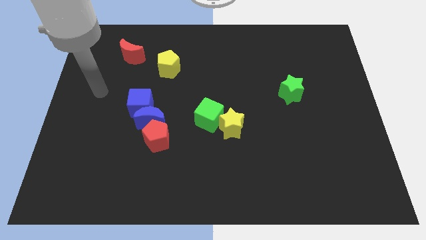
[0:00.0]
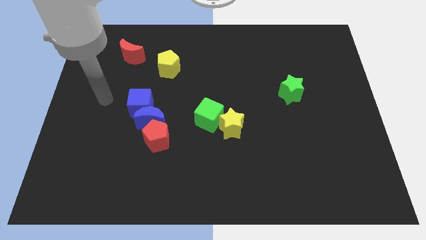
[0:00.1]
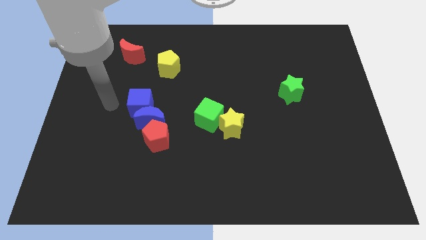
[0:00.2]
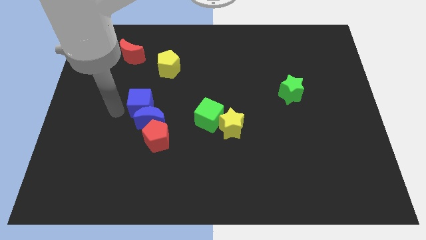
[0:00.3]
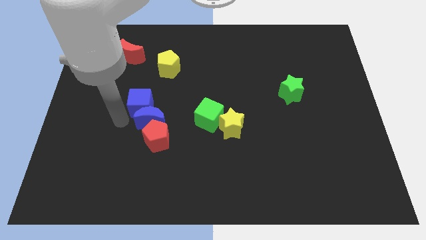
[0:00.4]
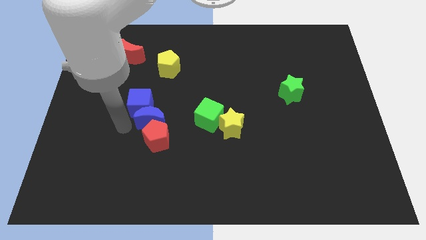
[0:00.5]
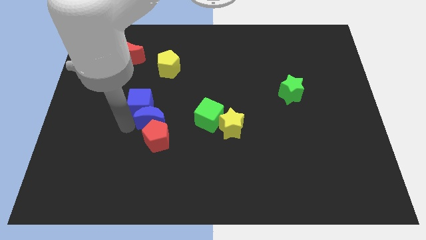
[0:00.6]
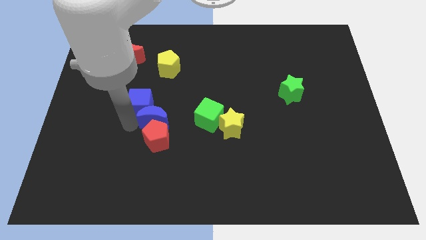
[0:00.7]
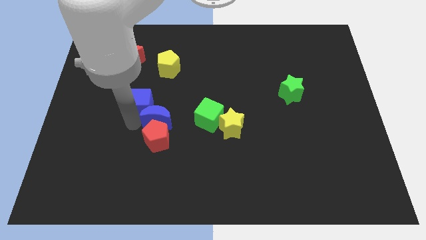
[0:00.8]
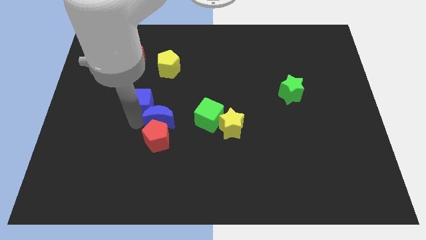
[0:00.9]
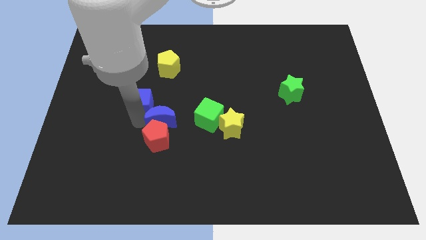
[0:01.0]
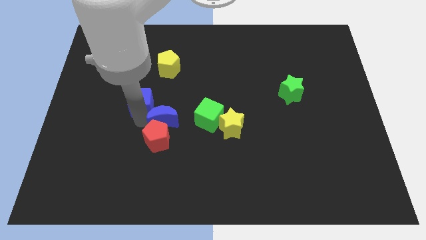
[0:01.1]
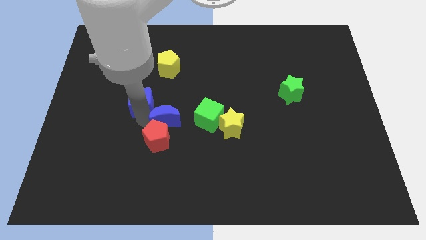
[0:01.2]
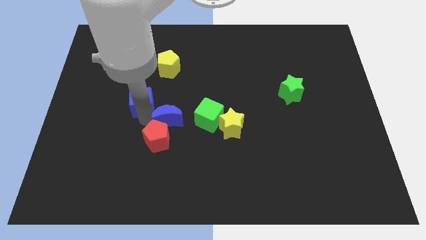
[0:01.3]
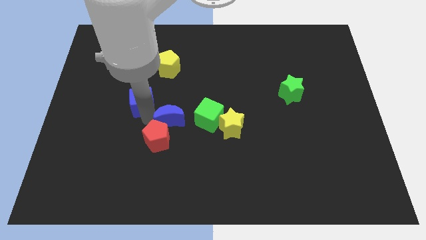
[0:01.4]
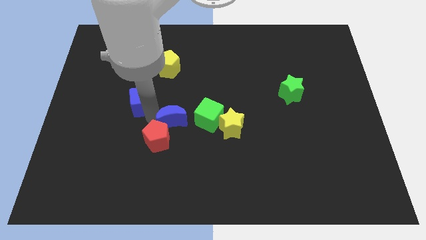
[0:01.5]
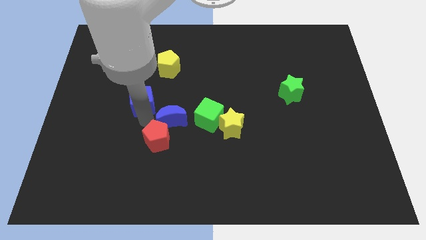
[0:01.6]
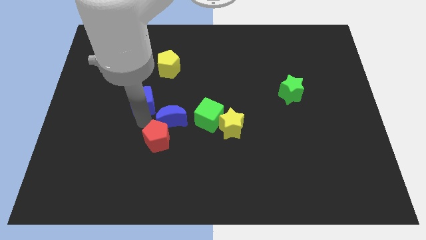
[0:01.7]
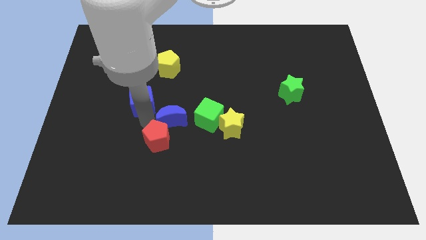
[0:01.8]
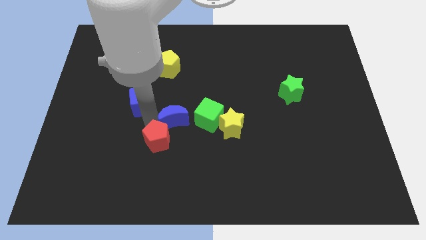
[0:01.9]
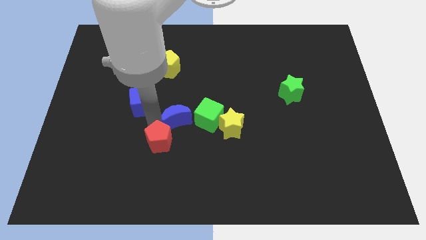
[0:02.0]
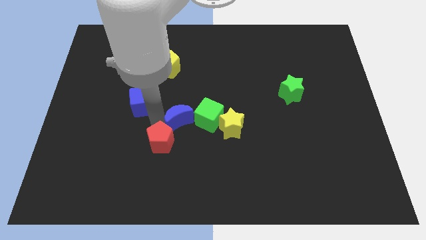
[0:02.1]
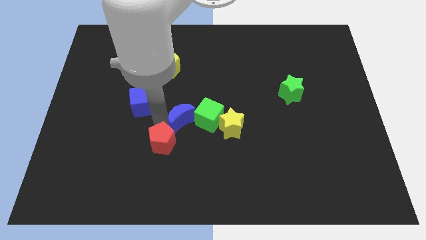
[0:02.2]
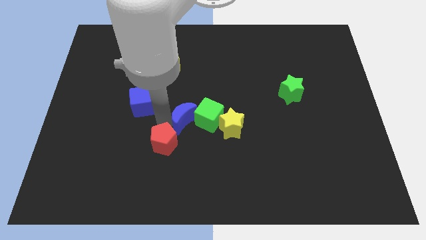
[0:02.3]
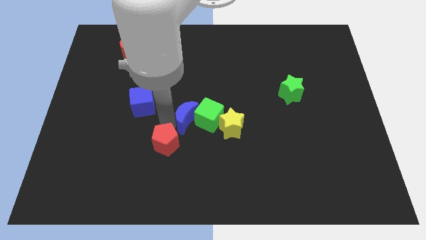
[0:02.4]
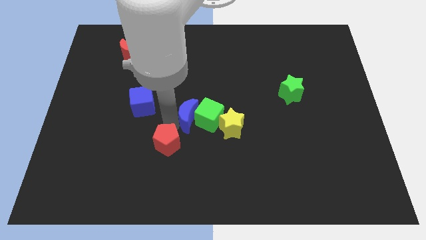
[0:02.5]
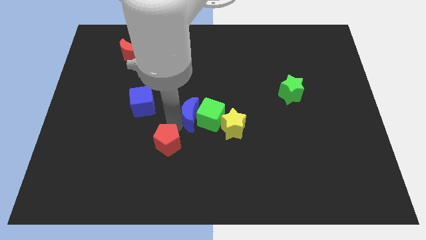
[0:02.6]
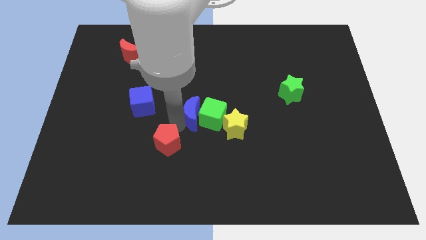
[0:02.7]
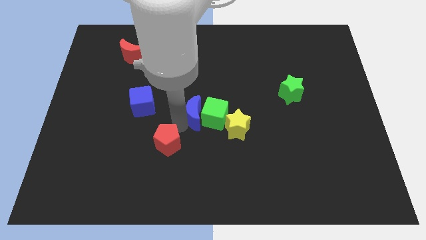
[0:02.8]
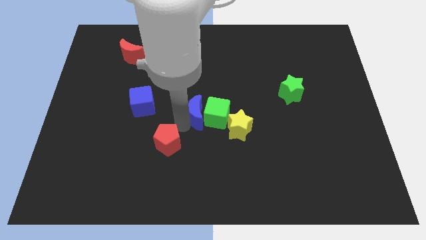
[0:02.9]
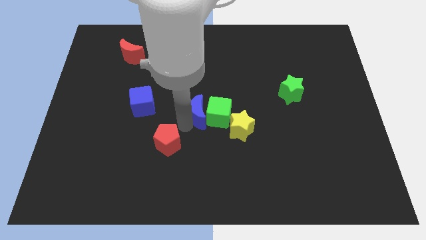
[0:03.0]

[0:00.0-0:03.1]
separate the blue moon from the blue cube and red pentagon

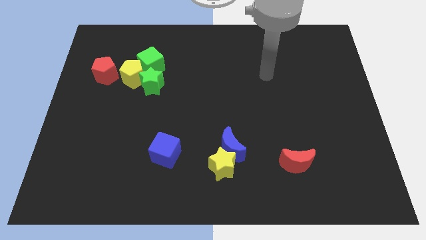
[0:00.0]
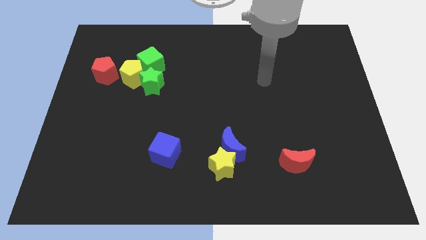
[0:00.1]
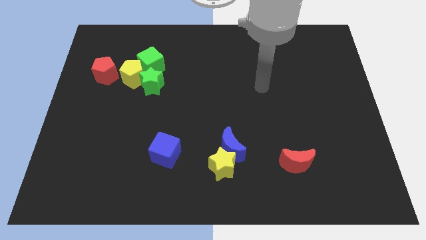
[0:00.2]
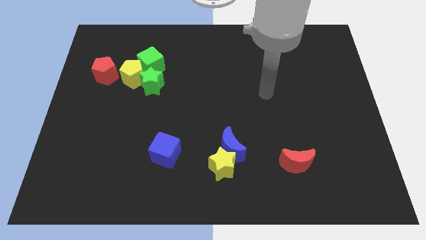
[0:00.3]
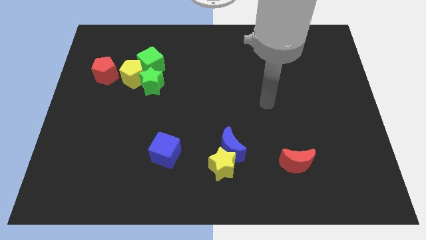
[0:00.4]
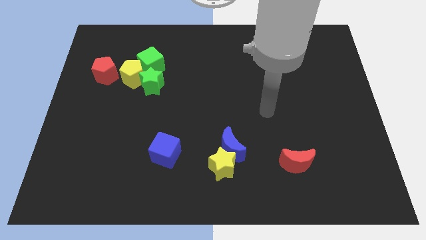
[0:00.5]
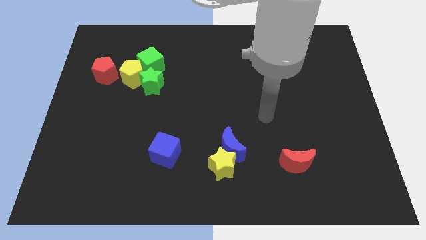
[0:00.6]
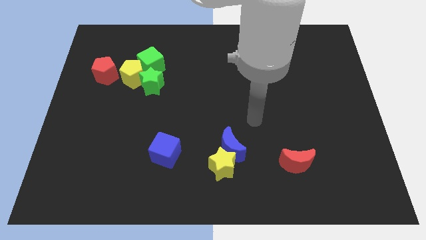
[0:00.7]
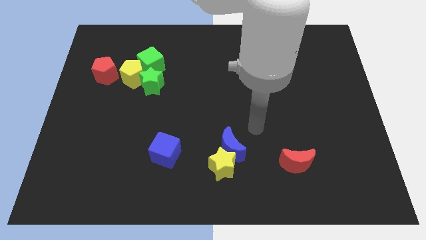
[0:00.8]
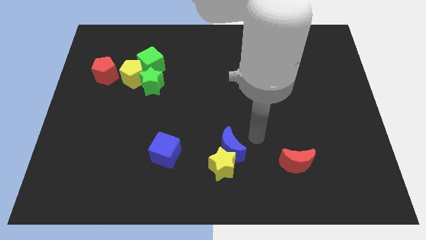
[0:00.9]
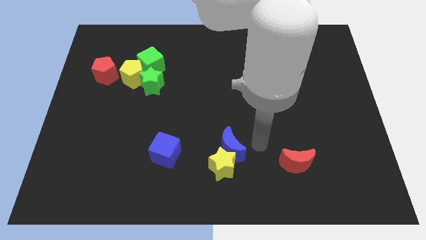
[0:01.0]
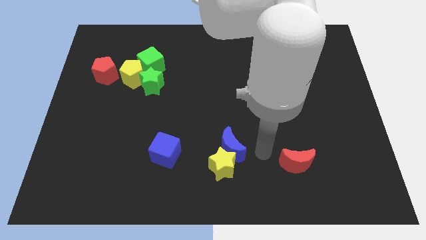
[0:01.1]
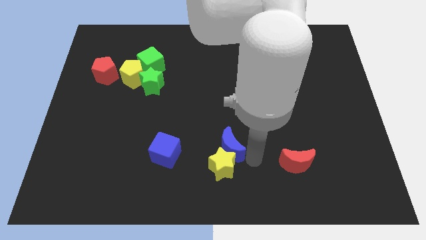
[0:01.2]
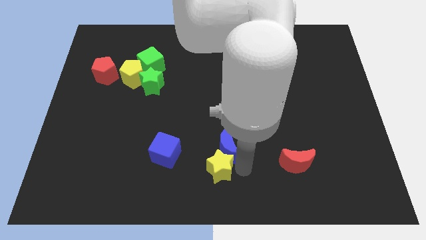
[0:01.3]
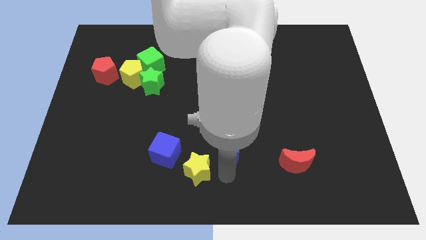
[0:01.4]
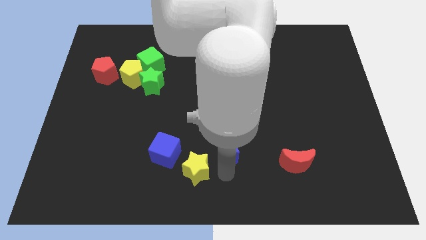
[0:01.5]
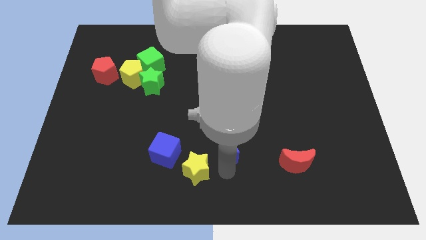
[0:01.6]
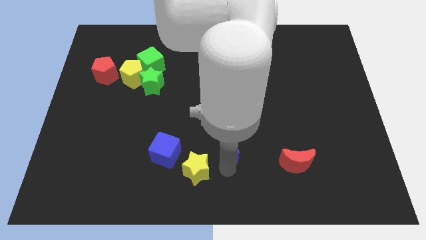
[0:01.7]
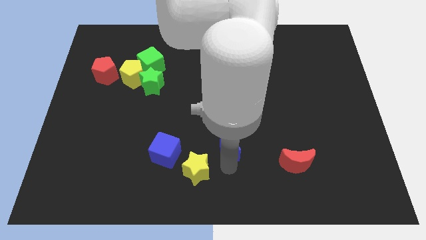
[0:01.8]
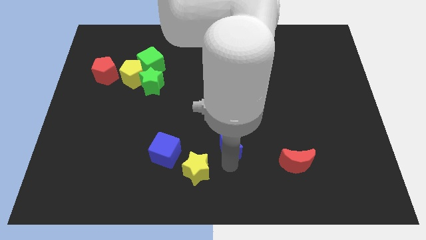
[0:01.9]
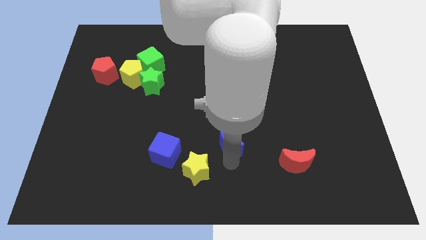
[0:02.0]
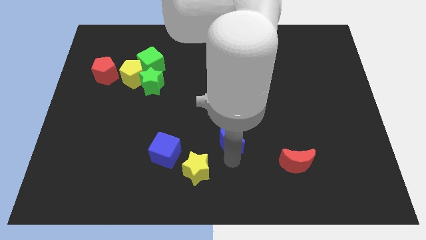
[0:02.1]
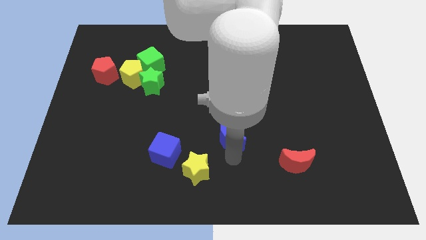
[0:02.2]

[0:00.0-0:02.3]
move the blue moon away from the yellow star

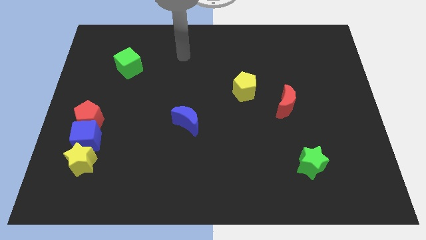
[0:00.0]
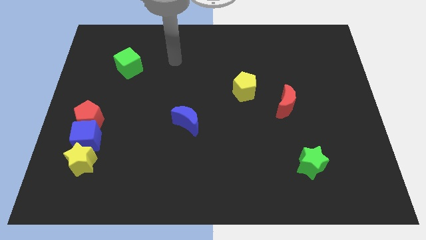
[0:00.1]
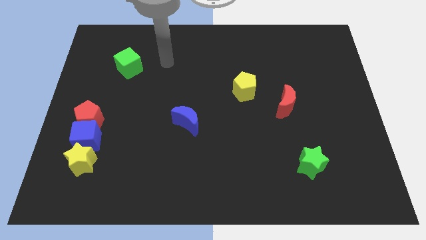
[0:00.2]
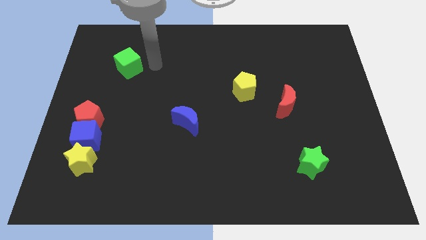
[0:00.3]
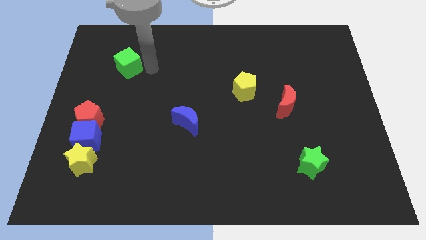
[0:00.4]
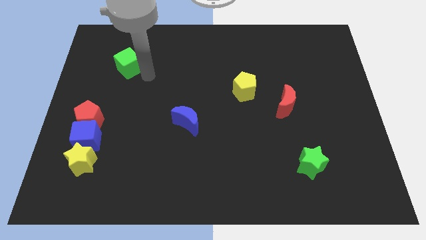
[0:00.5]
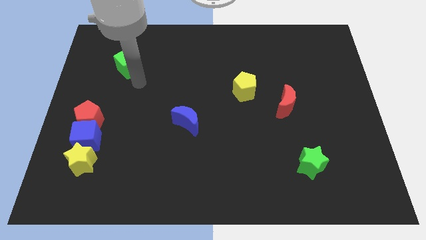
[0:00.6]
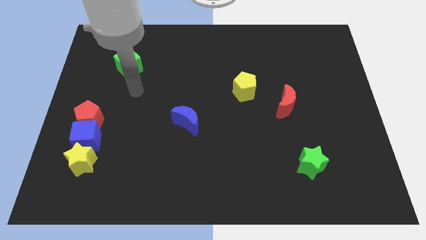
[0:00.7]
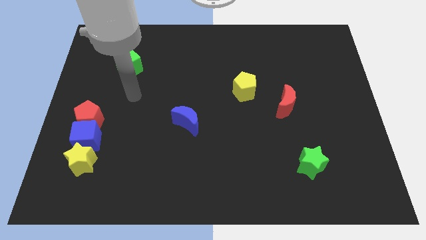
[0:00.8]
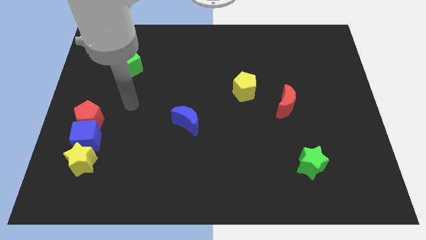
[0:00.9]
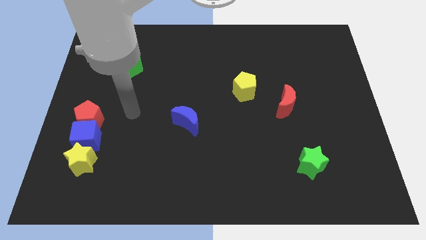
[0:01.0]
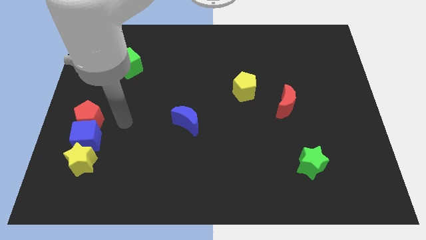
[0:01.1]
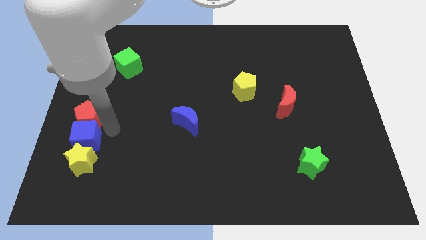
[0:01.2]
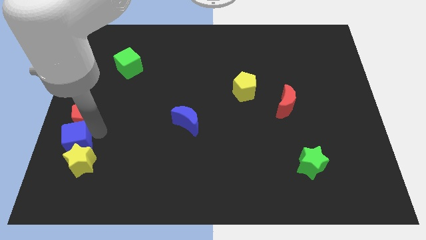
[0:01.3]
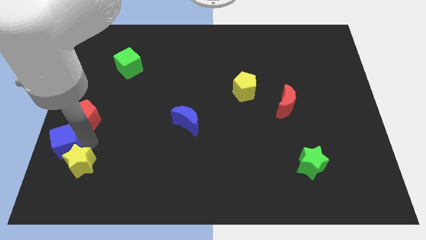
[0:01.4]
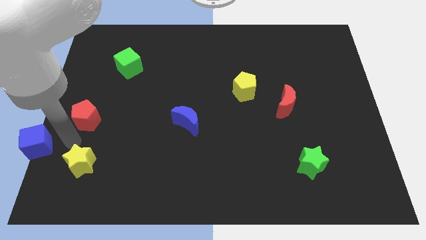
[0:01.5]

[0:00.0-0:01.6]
move the red pentagon away from the blue cube

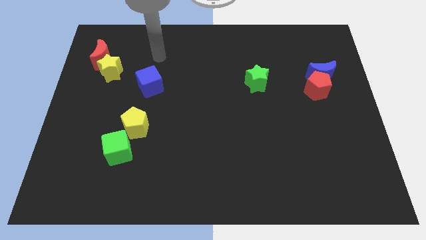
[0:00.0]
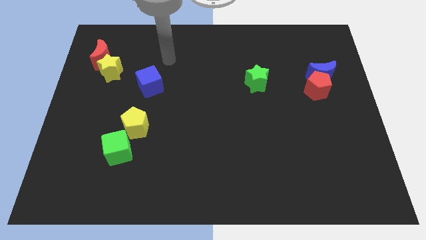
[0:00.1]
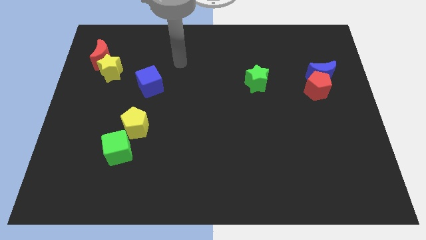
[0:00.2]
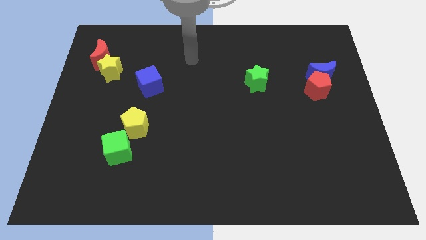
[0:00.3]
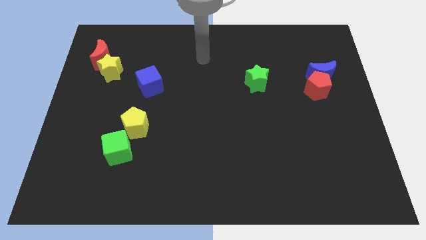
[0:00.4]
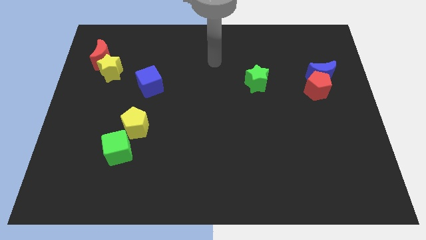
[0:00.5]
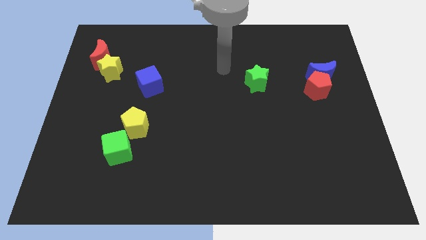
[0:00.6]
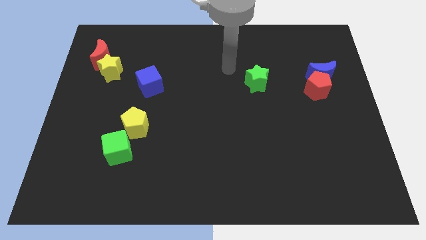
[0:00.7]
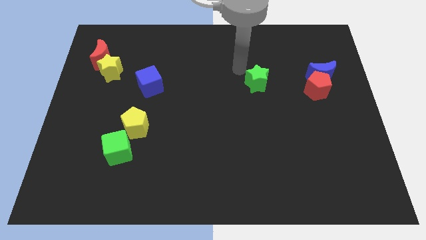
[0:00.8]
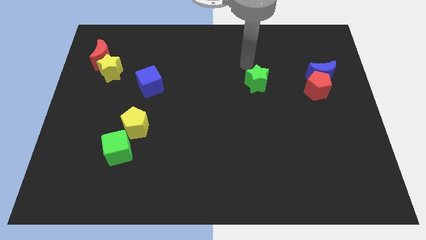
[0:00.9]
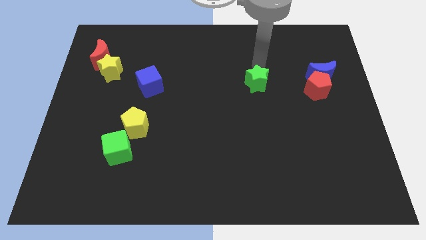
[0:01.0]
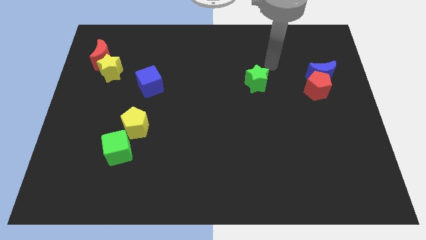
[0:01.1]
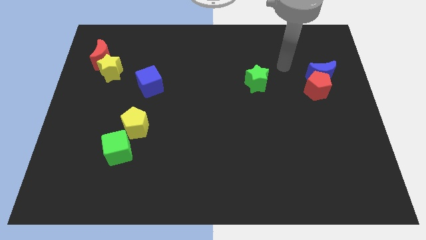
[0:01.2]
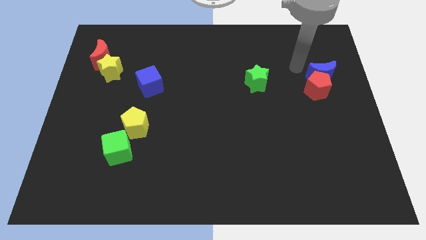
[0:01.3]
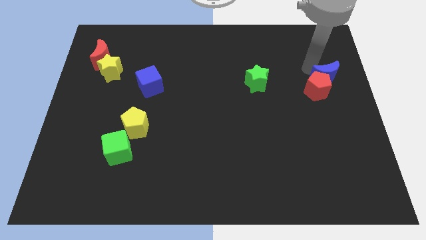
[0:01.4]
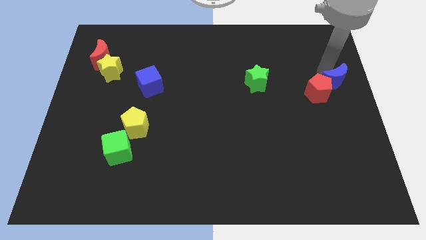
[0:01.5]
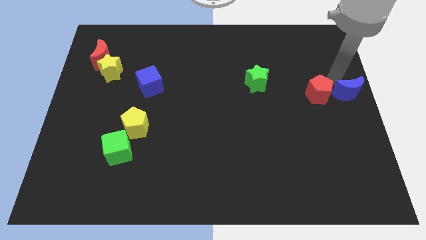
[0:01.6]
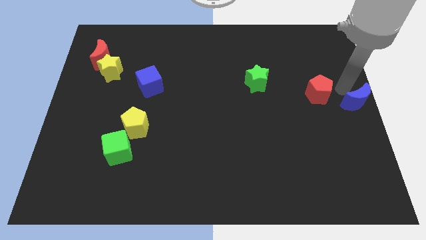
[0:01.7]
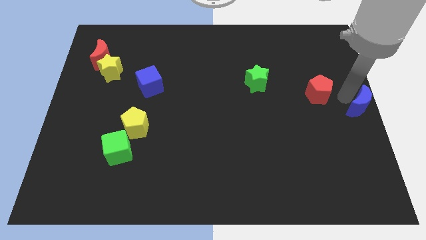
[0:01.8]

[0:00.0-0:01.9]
pull the red pentagon apart from the blue moon

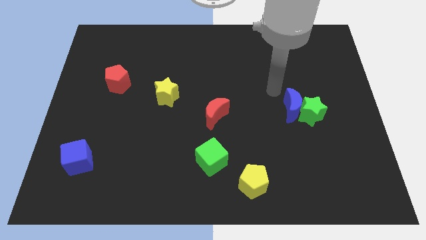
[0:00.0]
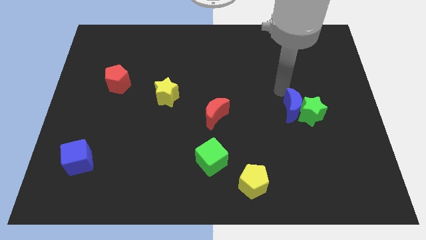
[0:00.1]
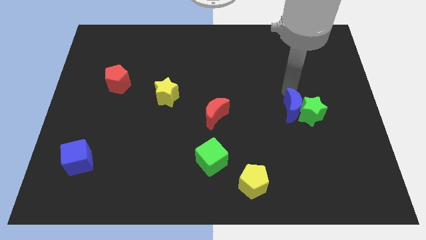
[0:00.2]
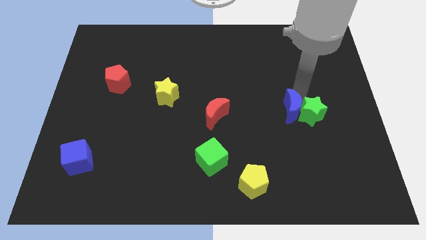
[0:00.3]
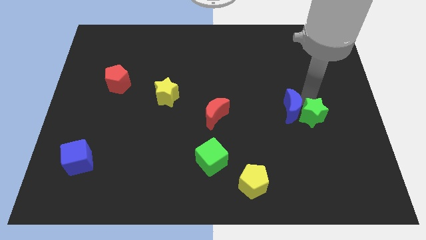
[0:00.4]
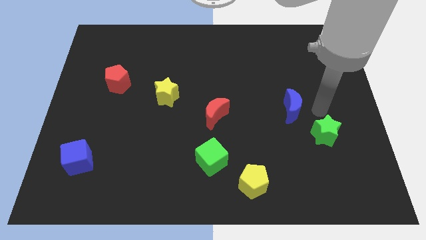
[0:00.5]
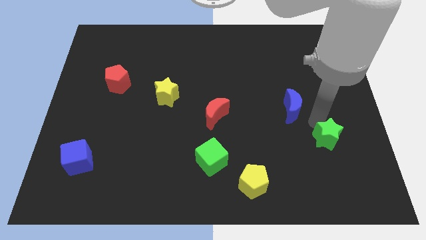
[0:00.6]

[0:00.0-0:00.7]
move the blue moon away from the green star
